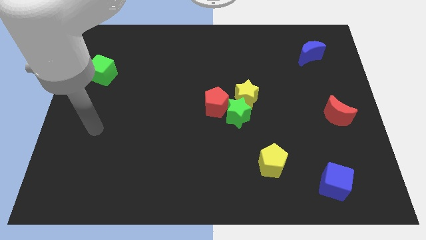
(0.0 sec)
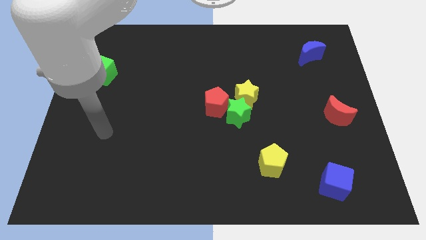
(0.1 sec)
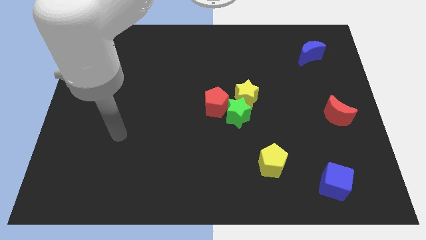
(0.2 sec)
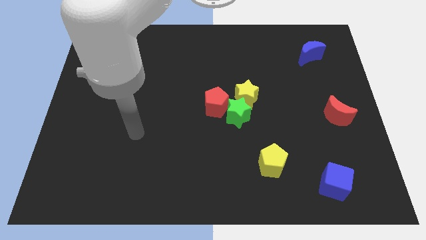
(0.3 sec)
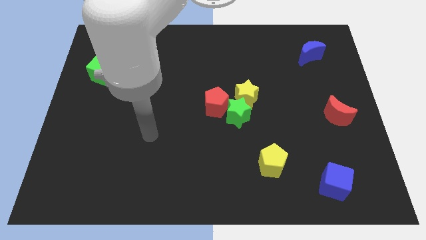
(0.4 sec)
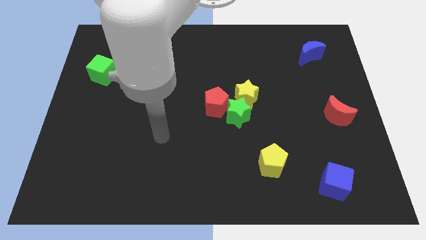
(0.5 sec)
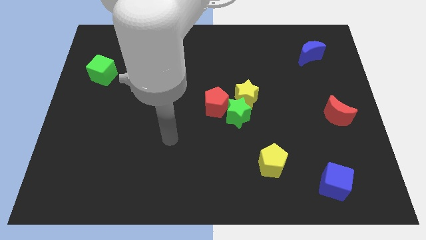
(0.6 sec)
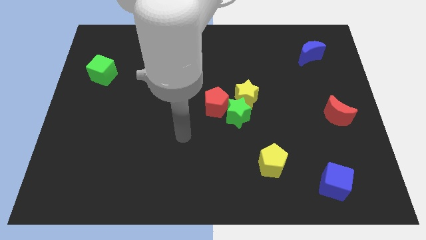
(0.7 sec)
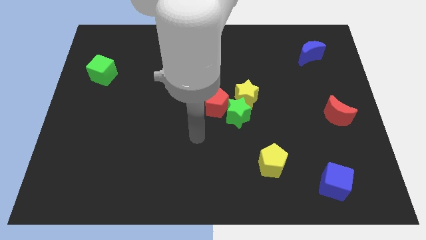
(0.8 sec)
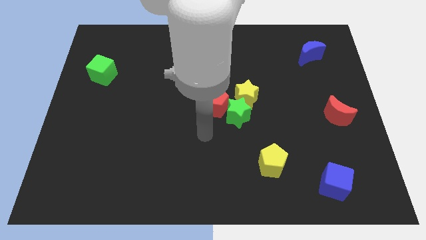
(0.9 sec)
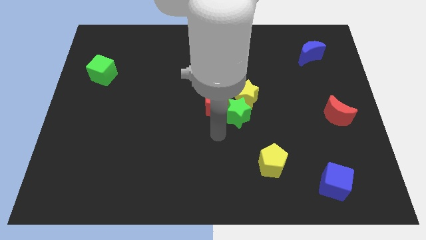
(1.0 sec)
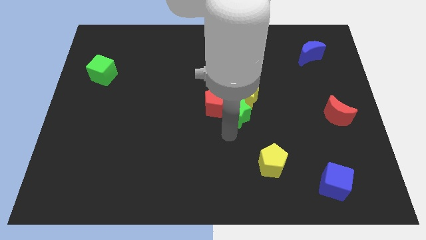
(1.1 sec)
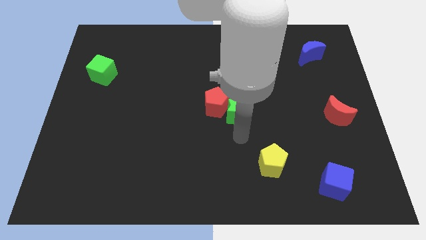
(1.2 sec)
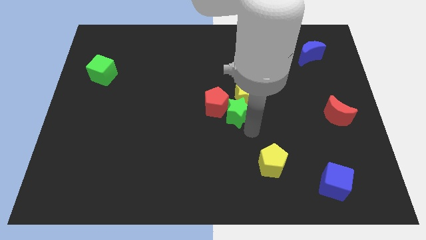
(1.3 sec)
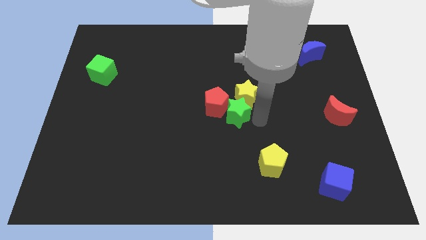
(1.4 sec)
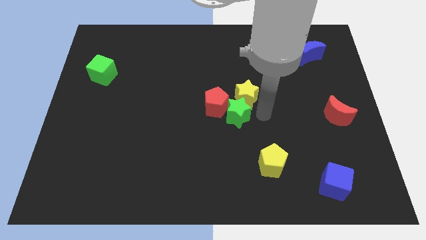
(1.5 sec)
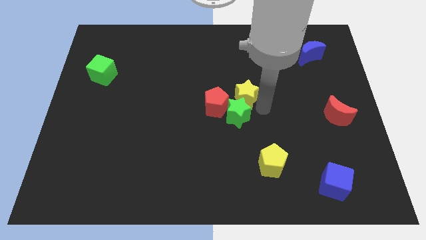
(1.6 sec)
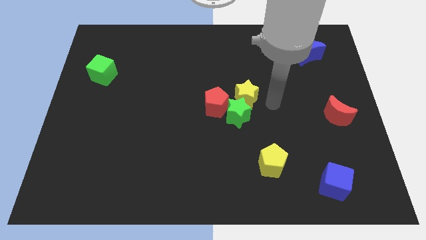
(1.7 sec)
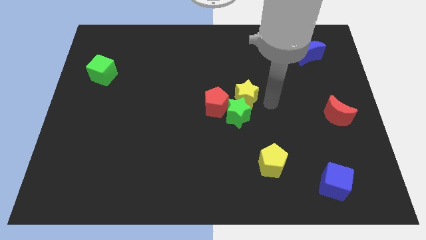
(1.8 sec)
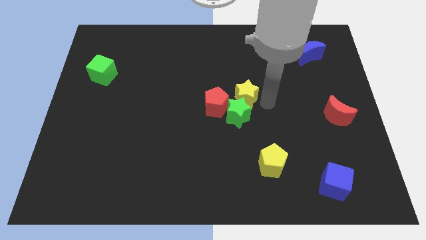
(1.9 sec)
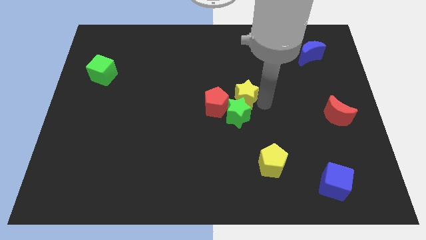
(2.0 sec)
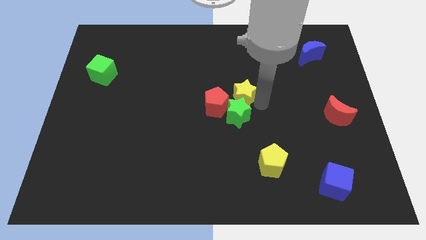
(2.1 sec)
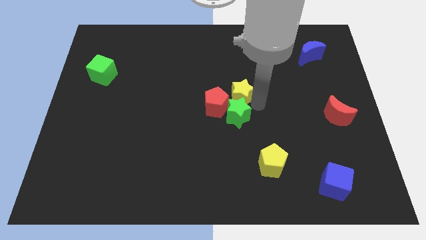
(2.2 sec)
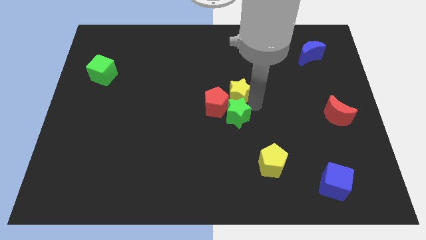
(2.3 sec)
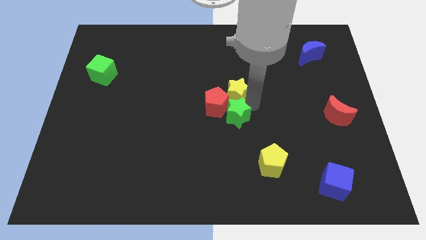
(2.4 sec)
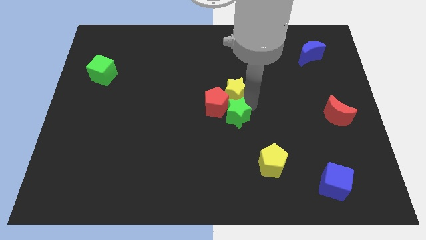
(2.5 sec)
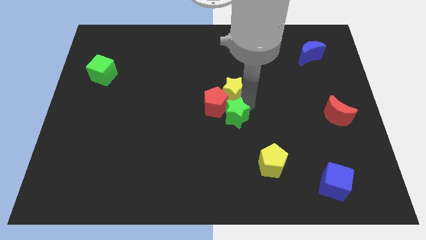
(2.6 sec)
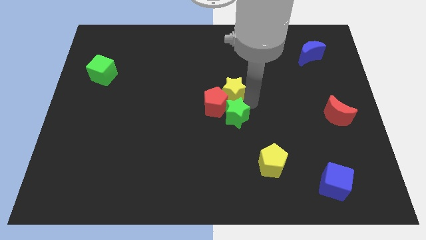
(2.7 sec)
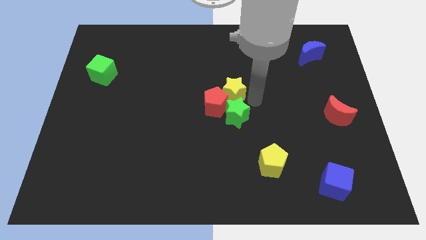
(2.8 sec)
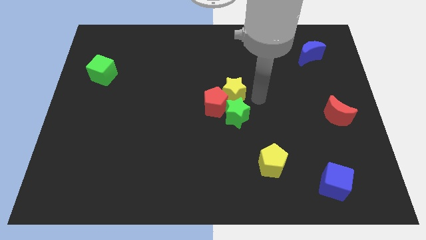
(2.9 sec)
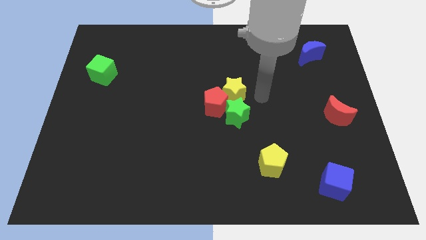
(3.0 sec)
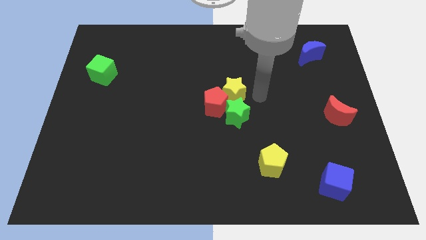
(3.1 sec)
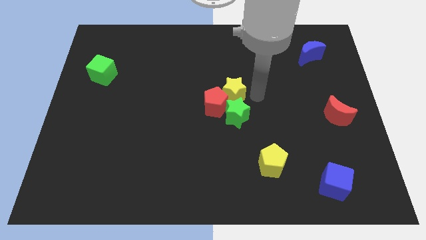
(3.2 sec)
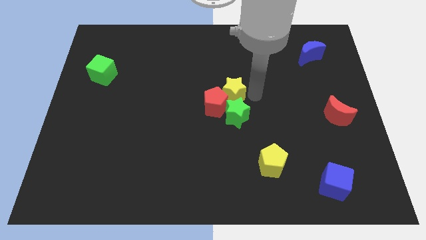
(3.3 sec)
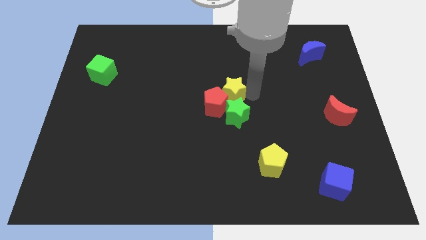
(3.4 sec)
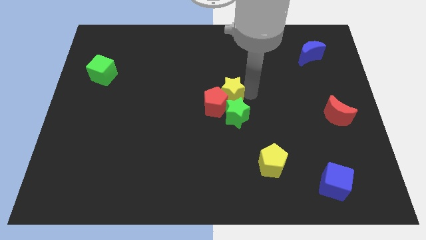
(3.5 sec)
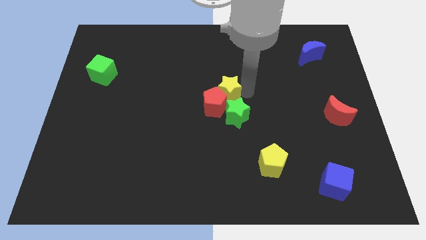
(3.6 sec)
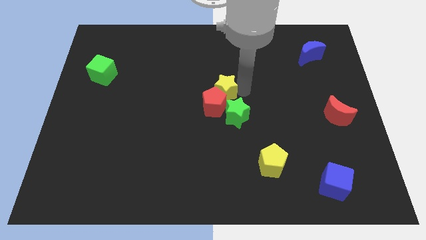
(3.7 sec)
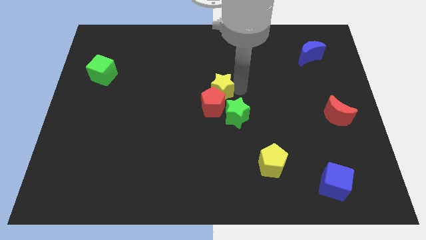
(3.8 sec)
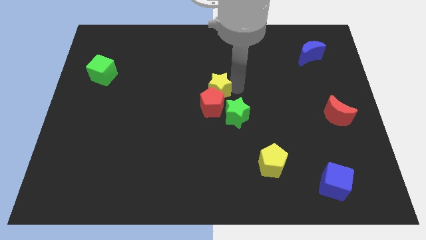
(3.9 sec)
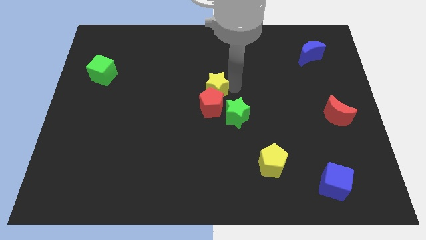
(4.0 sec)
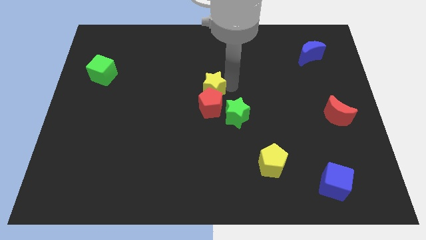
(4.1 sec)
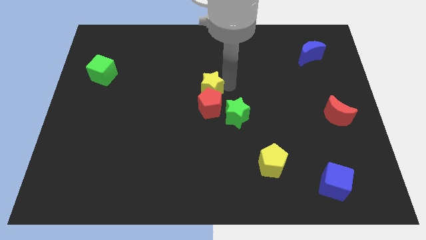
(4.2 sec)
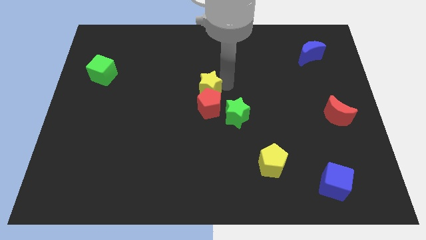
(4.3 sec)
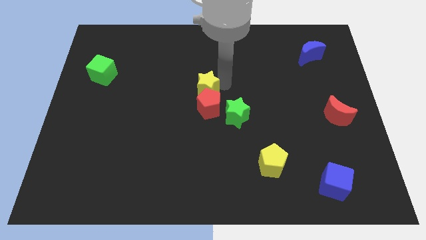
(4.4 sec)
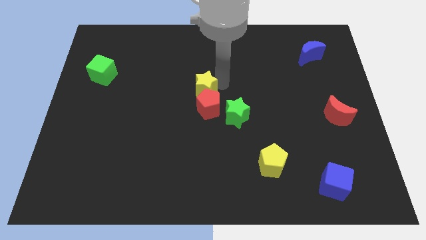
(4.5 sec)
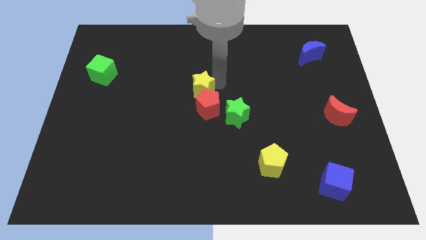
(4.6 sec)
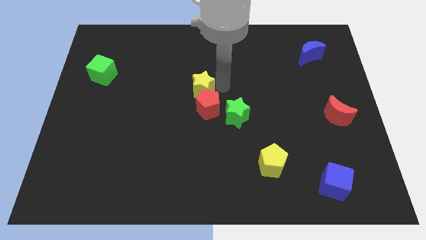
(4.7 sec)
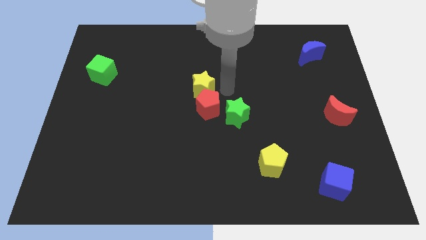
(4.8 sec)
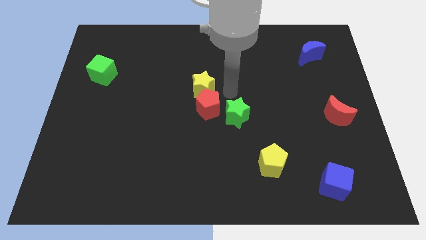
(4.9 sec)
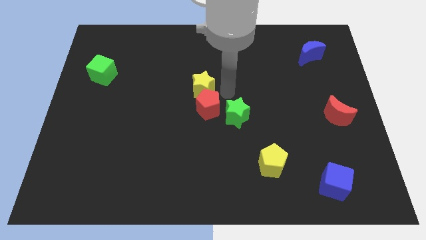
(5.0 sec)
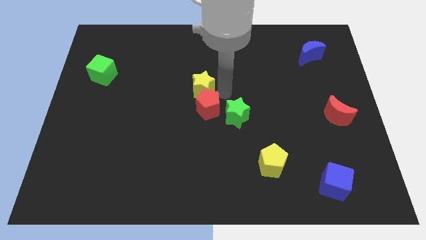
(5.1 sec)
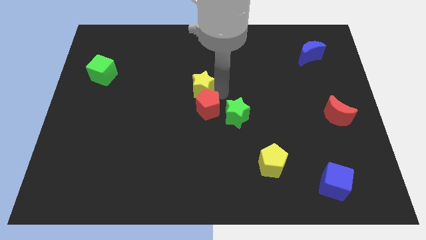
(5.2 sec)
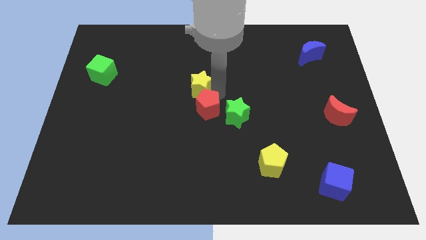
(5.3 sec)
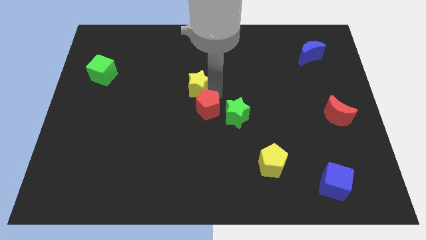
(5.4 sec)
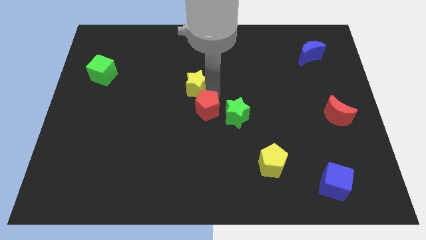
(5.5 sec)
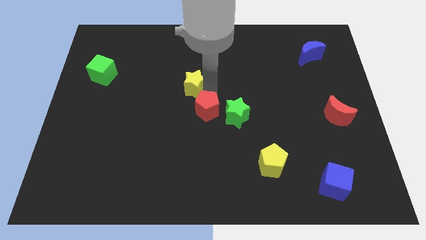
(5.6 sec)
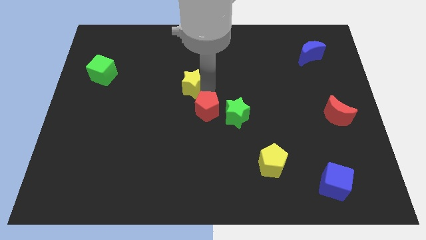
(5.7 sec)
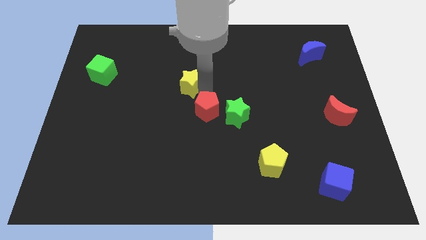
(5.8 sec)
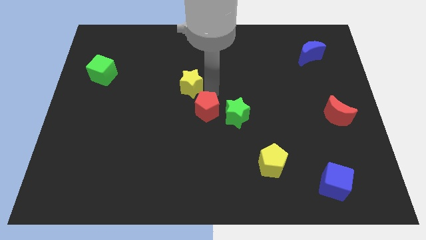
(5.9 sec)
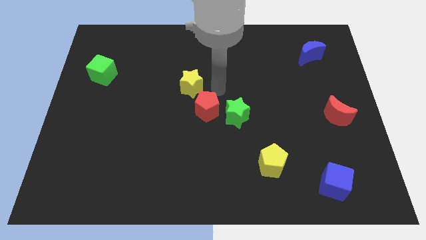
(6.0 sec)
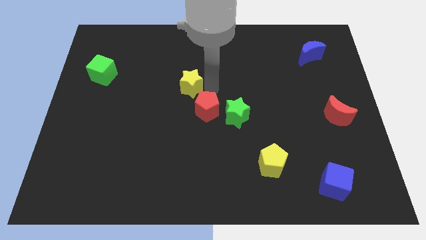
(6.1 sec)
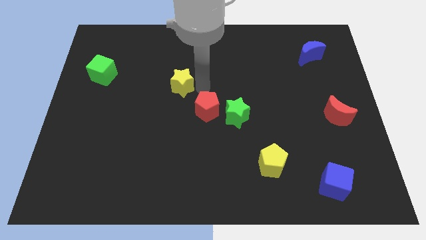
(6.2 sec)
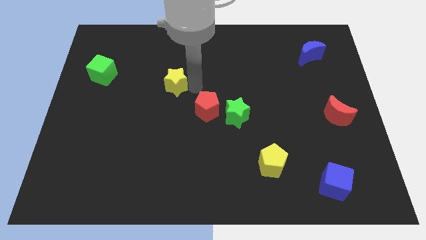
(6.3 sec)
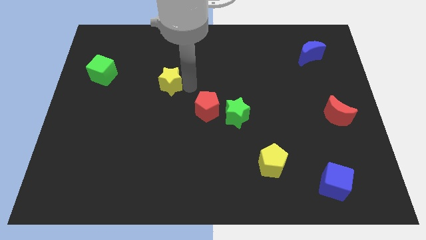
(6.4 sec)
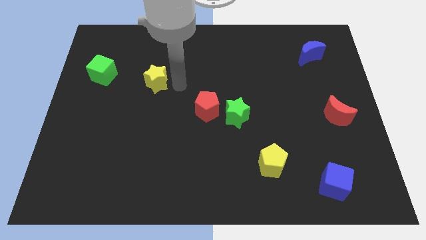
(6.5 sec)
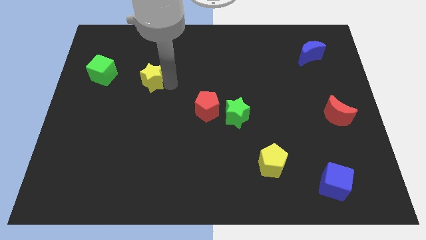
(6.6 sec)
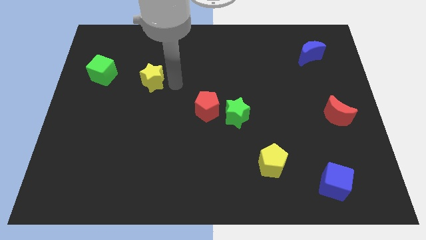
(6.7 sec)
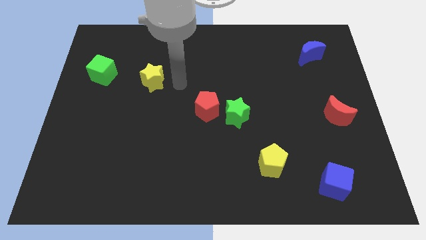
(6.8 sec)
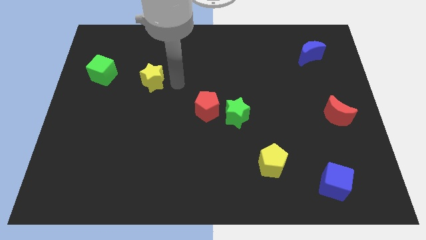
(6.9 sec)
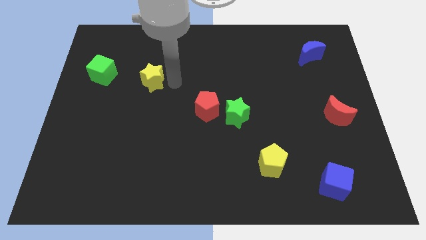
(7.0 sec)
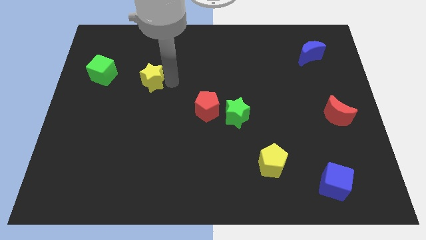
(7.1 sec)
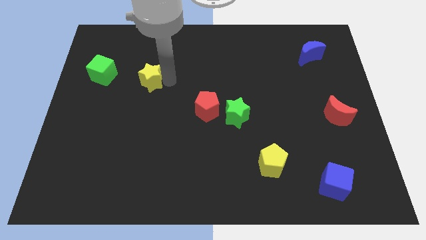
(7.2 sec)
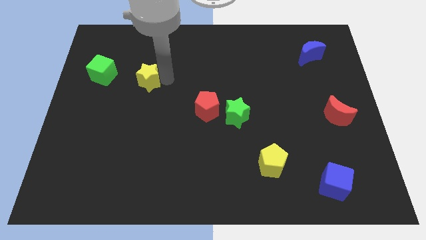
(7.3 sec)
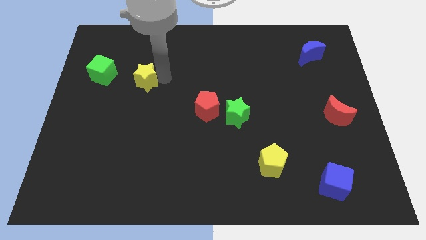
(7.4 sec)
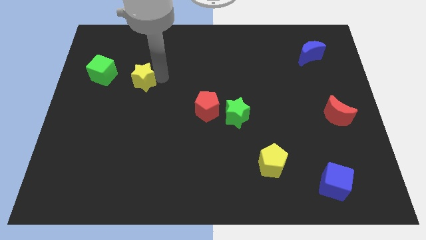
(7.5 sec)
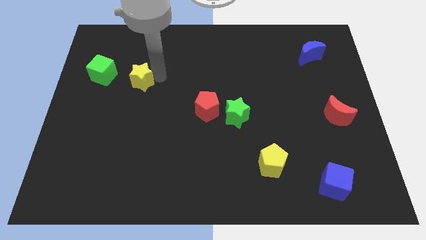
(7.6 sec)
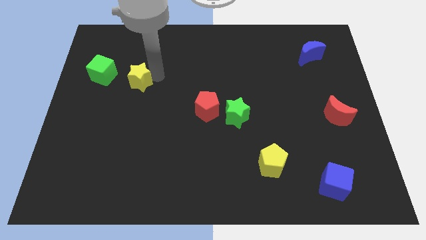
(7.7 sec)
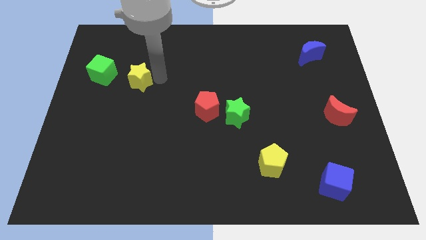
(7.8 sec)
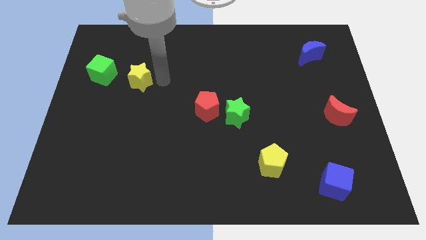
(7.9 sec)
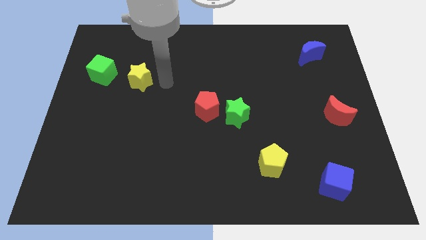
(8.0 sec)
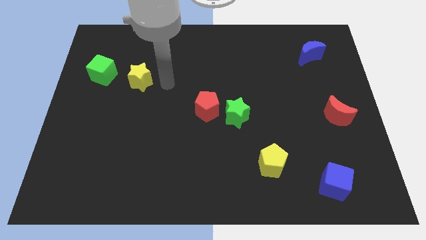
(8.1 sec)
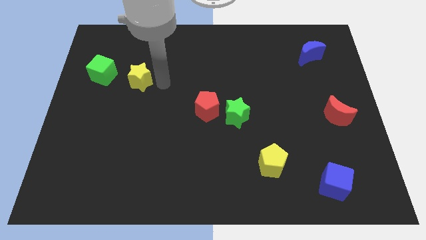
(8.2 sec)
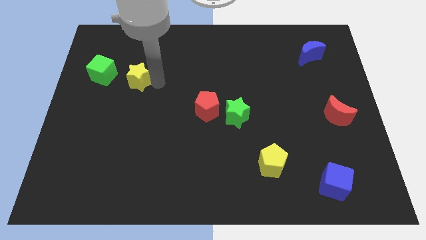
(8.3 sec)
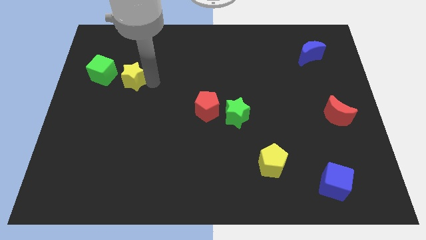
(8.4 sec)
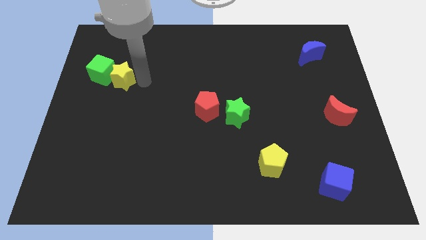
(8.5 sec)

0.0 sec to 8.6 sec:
push the yellow star next to the green cube
